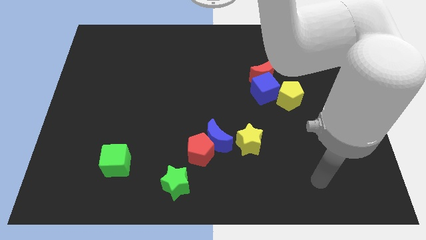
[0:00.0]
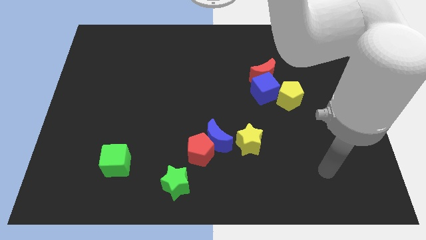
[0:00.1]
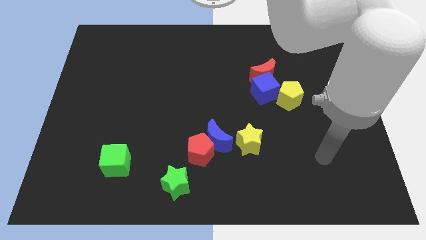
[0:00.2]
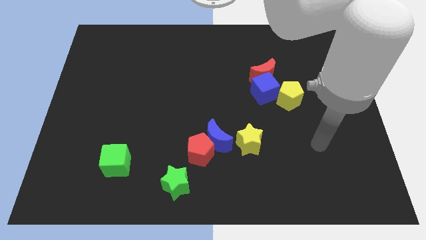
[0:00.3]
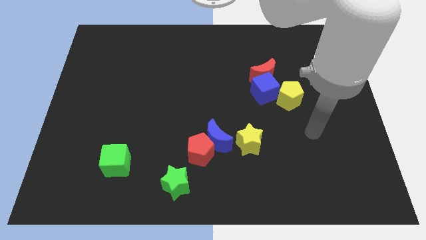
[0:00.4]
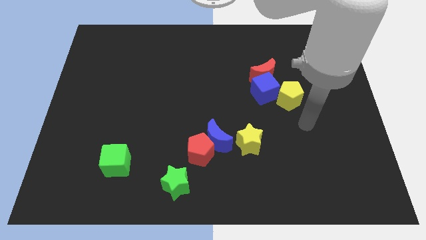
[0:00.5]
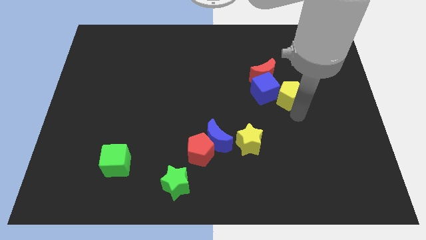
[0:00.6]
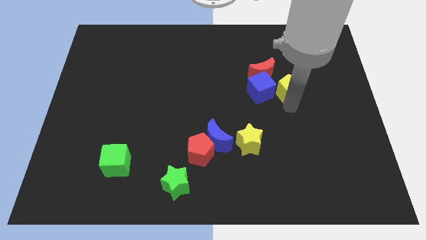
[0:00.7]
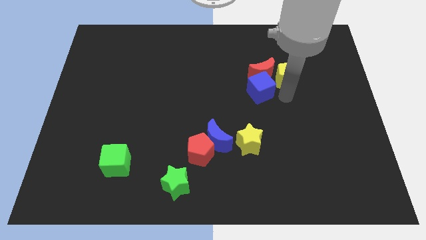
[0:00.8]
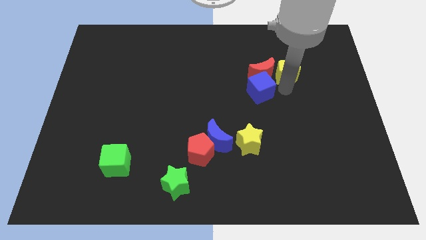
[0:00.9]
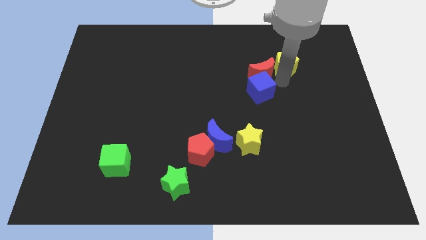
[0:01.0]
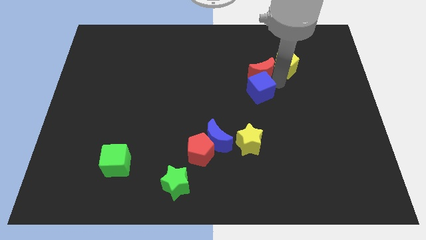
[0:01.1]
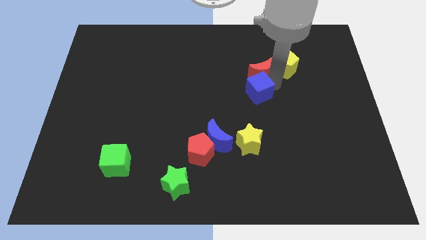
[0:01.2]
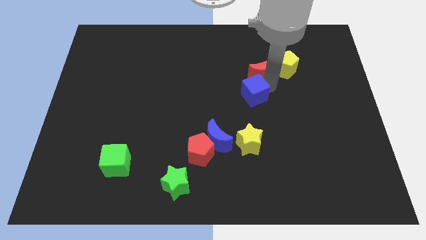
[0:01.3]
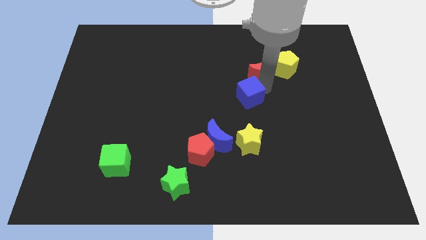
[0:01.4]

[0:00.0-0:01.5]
move the blue cube away from the red moon and yellow pentagon

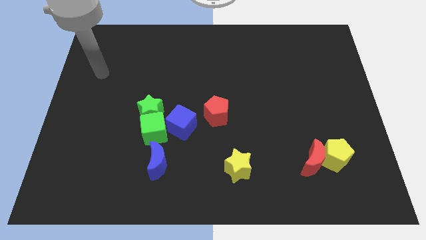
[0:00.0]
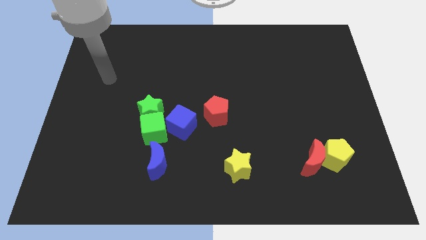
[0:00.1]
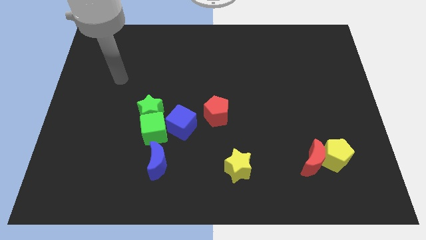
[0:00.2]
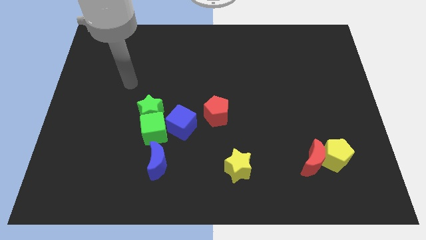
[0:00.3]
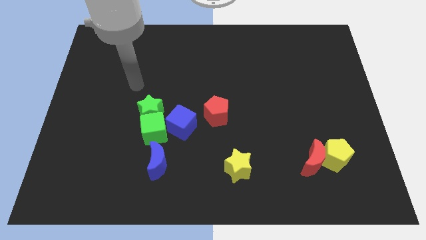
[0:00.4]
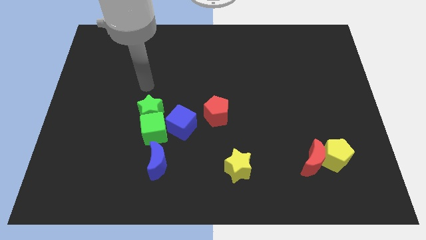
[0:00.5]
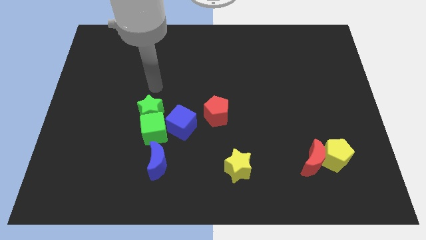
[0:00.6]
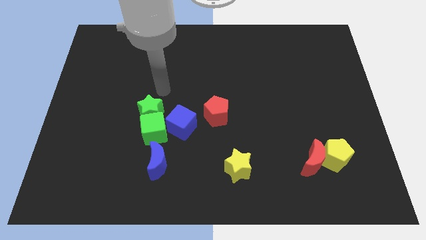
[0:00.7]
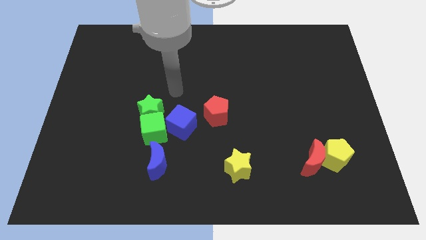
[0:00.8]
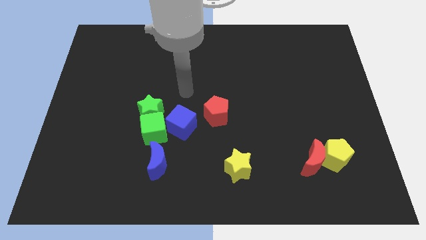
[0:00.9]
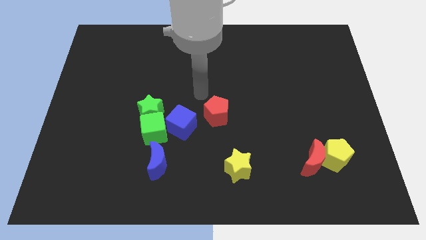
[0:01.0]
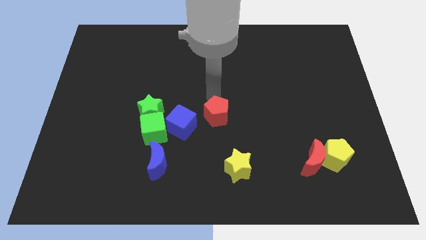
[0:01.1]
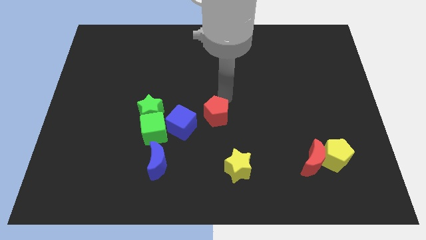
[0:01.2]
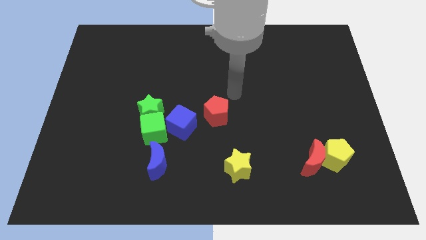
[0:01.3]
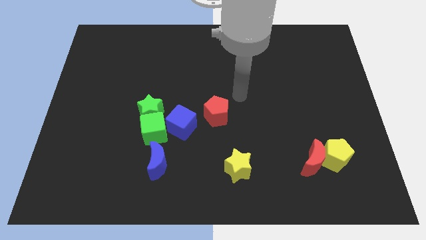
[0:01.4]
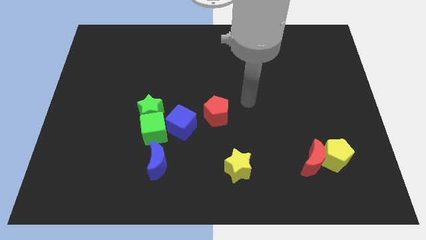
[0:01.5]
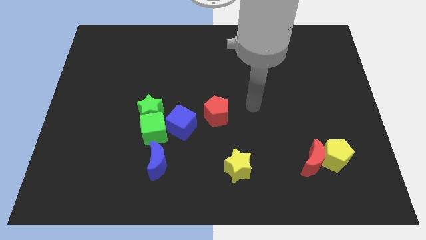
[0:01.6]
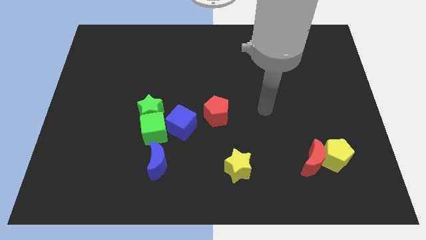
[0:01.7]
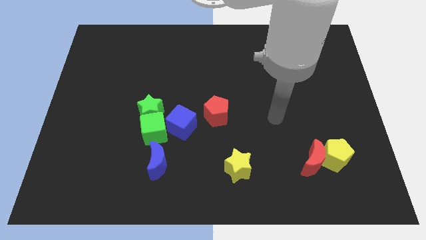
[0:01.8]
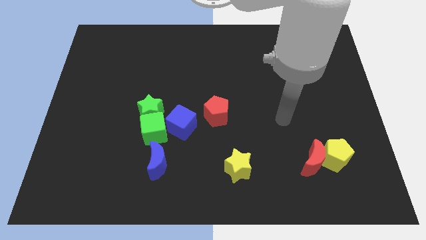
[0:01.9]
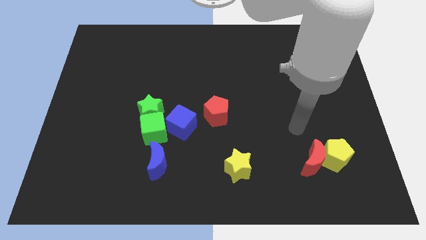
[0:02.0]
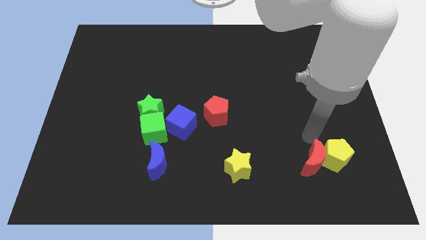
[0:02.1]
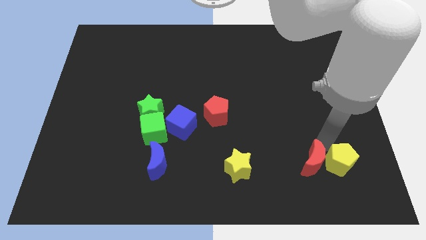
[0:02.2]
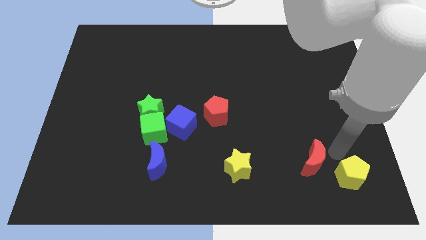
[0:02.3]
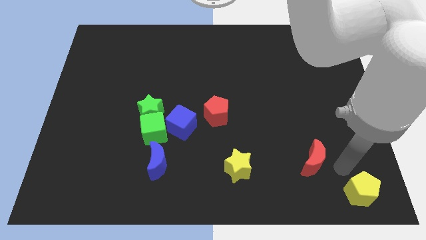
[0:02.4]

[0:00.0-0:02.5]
pull the red moon apart from the yellow pentagon

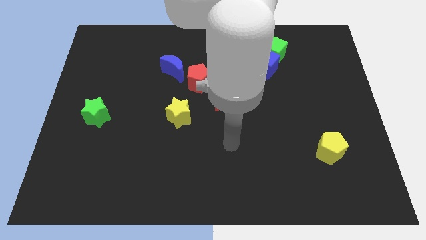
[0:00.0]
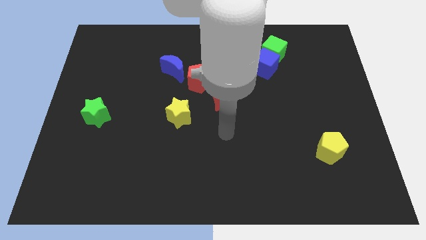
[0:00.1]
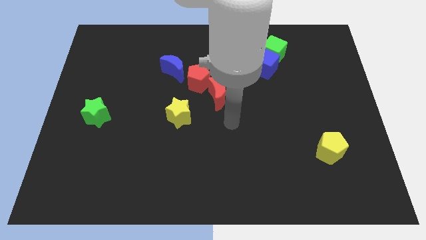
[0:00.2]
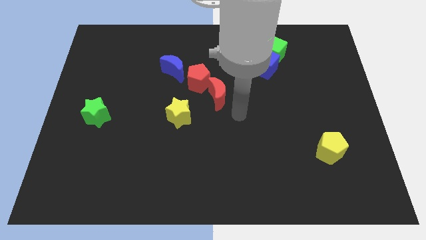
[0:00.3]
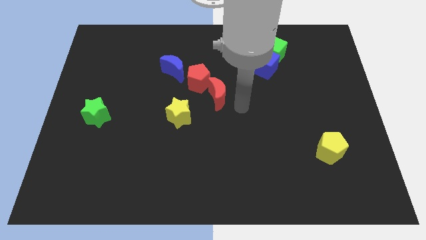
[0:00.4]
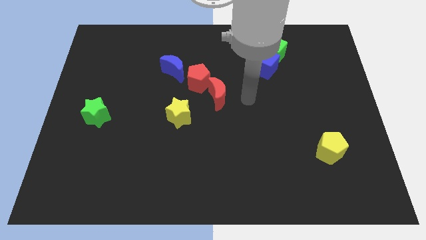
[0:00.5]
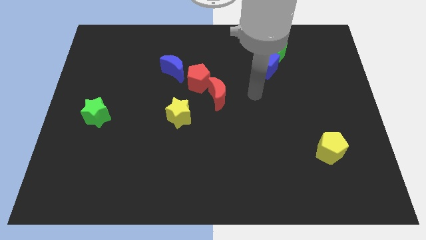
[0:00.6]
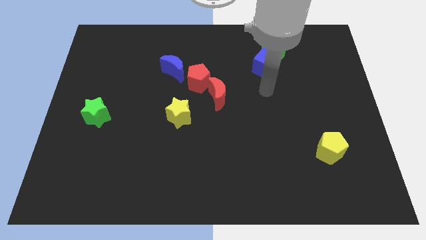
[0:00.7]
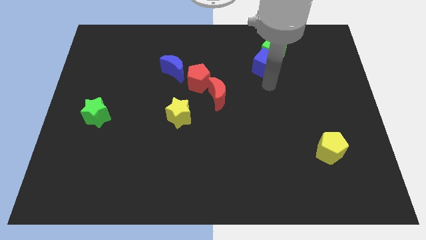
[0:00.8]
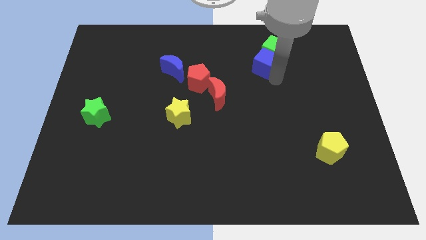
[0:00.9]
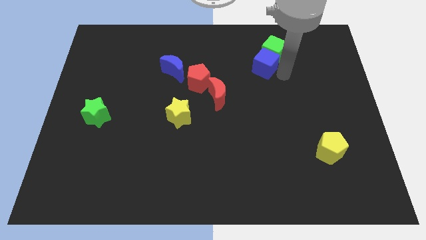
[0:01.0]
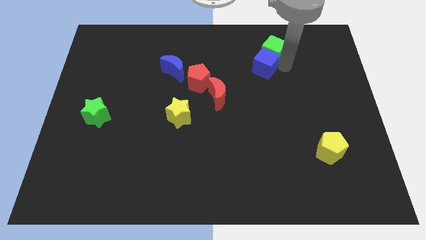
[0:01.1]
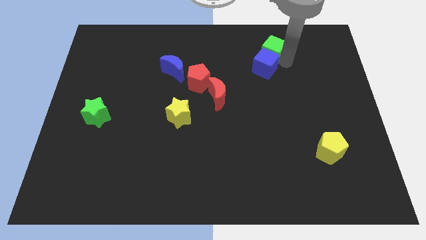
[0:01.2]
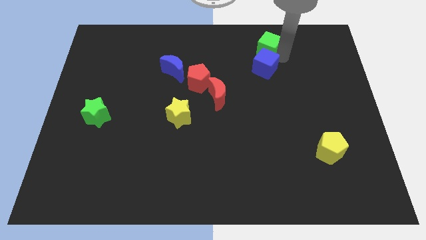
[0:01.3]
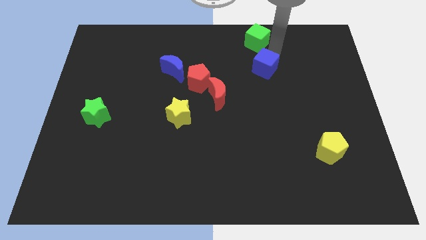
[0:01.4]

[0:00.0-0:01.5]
pull the blue cube apart from the green cube

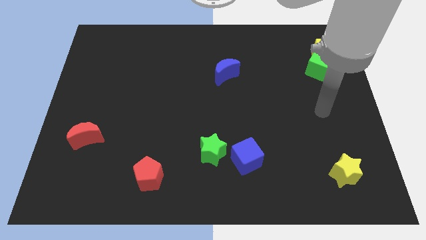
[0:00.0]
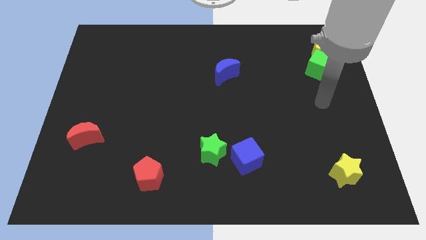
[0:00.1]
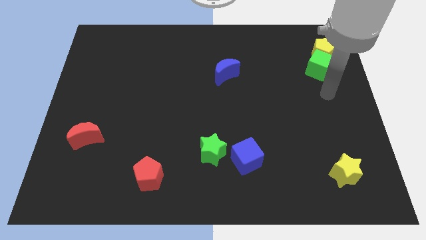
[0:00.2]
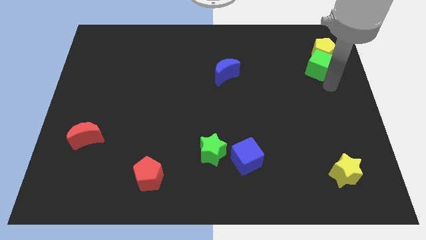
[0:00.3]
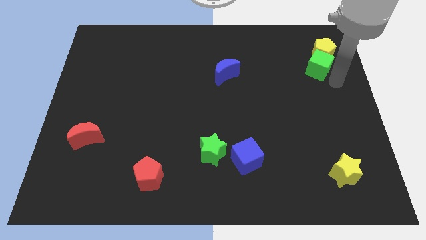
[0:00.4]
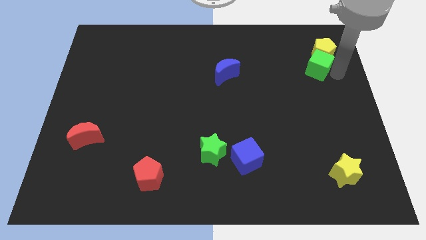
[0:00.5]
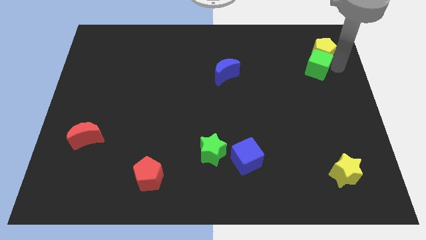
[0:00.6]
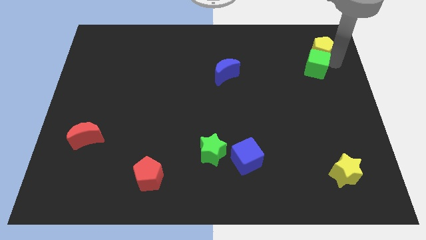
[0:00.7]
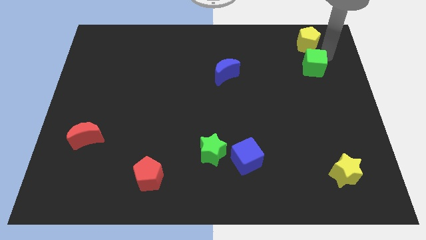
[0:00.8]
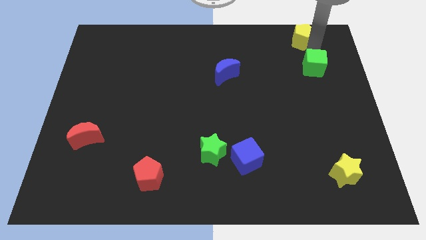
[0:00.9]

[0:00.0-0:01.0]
separate the green cube from the yellow pentagon

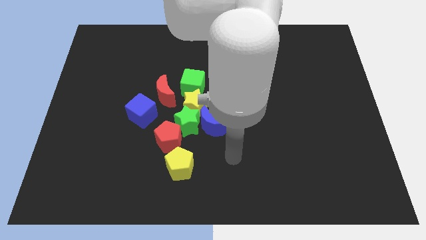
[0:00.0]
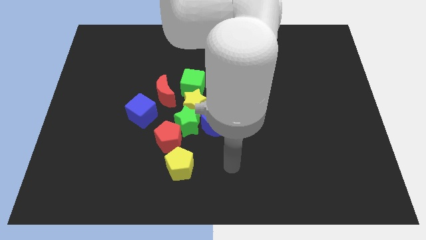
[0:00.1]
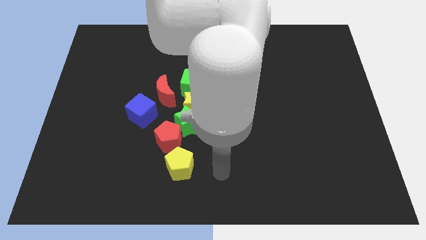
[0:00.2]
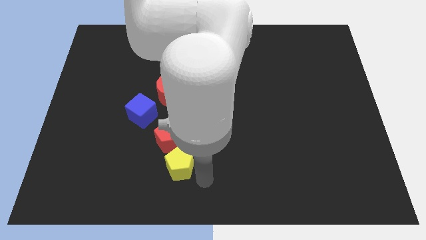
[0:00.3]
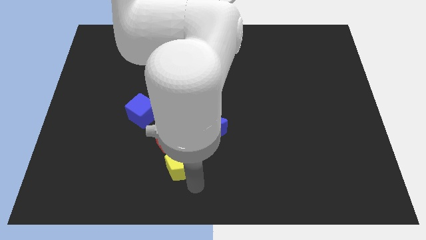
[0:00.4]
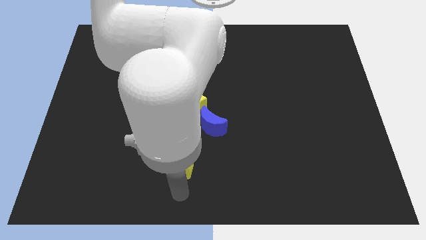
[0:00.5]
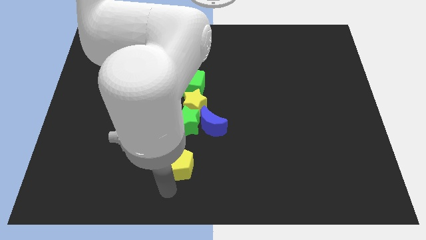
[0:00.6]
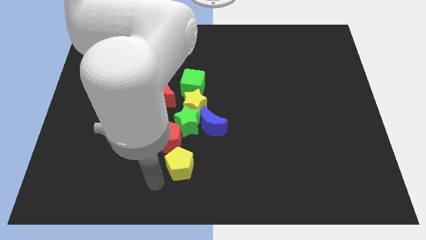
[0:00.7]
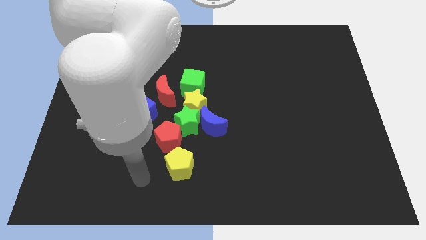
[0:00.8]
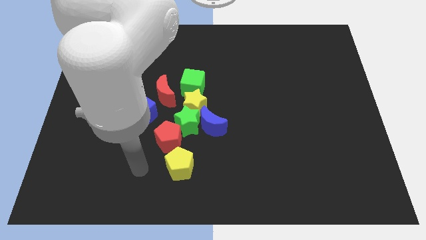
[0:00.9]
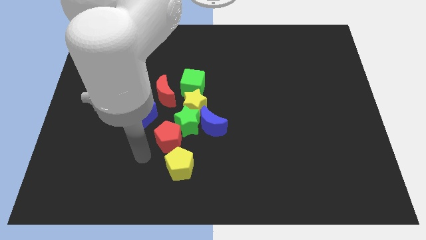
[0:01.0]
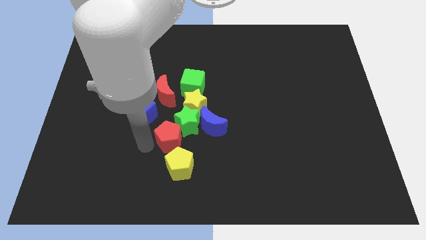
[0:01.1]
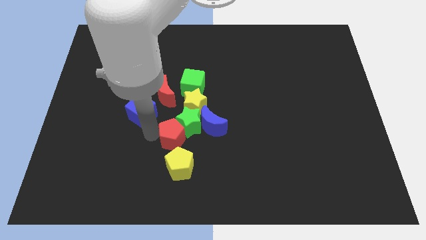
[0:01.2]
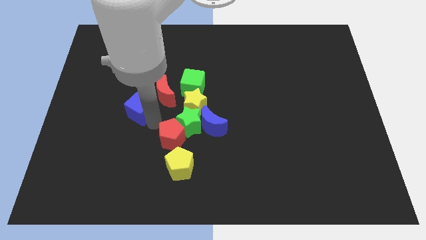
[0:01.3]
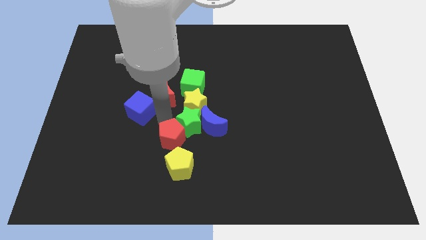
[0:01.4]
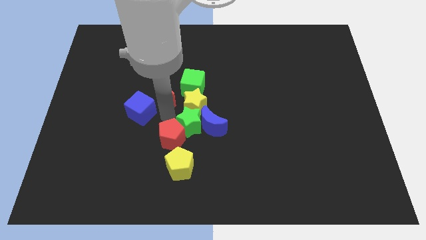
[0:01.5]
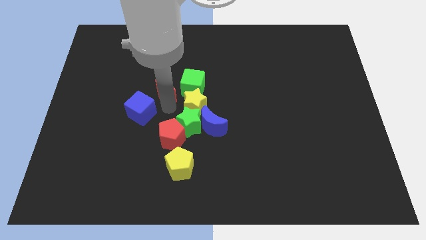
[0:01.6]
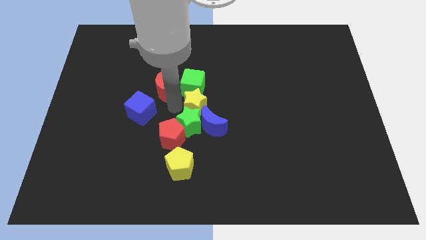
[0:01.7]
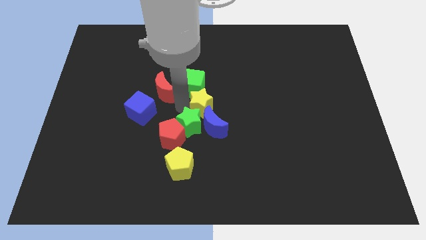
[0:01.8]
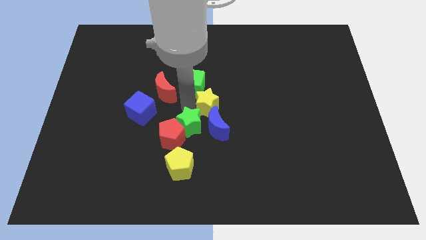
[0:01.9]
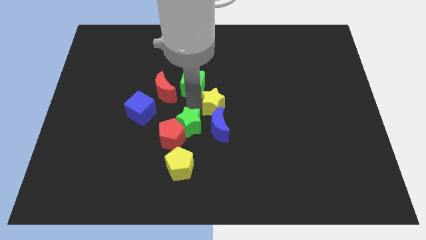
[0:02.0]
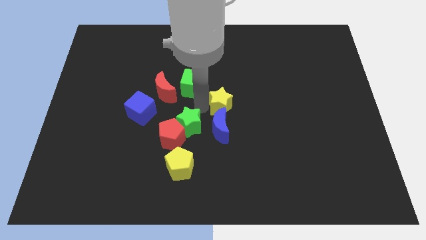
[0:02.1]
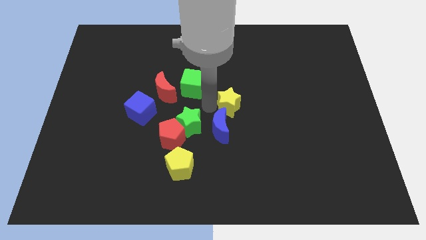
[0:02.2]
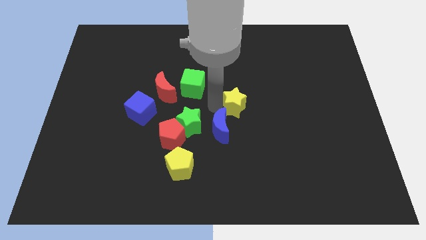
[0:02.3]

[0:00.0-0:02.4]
move the yellow star away from the group of blocks

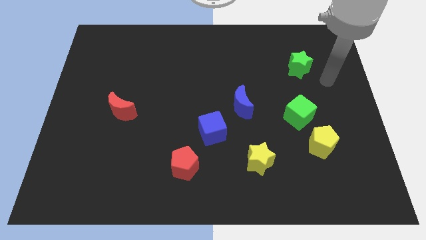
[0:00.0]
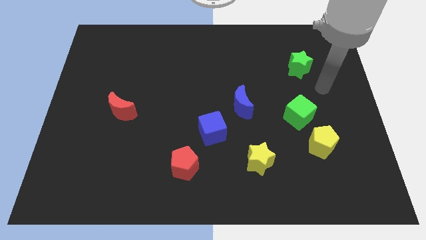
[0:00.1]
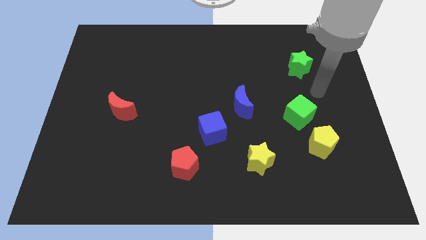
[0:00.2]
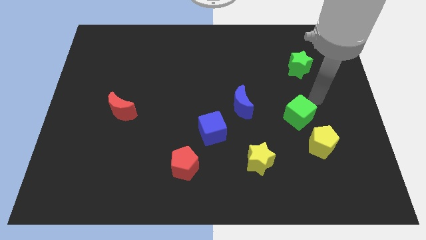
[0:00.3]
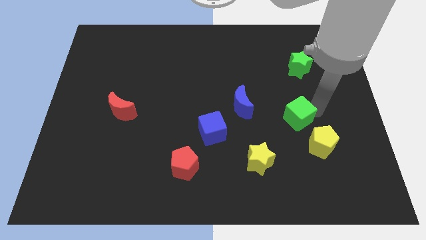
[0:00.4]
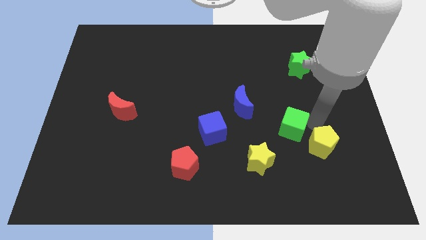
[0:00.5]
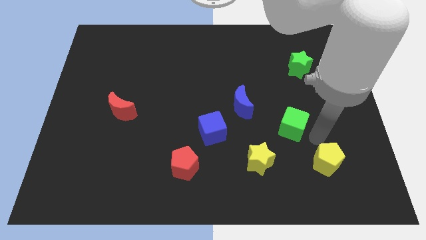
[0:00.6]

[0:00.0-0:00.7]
move the green cube away from the yellow pentagon
